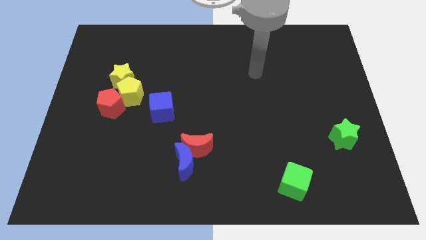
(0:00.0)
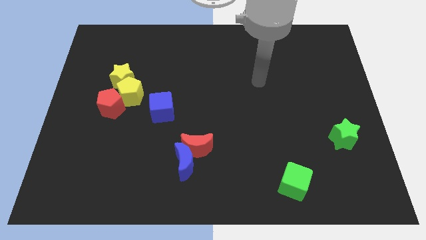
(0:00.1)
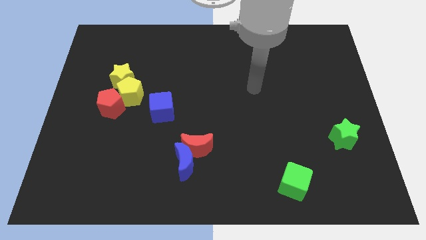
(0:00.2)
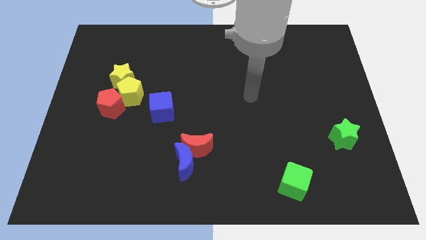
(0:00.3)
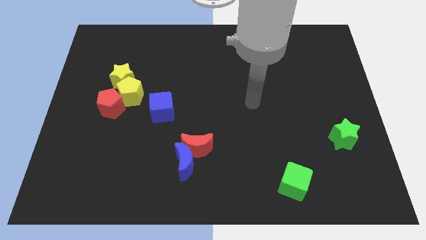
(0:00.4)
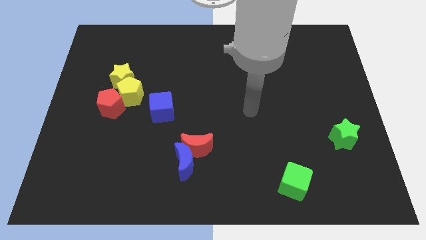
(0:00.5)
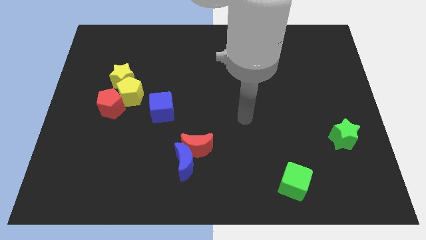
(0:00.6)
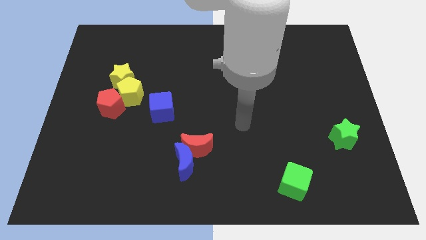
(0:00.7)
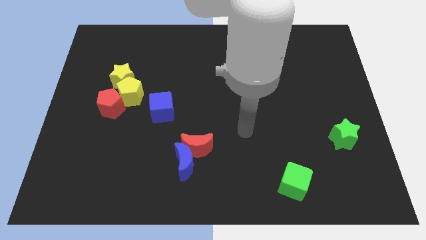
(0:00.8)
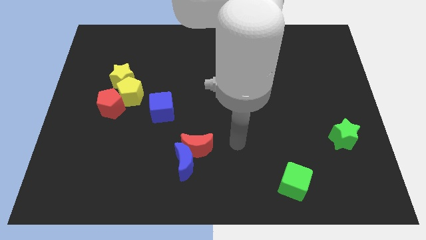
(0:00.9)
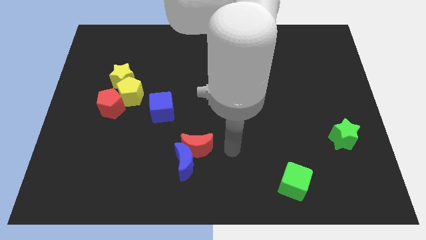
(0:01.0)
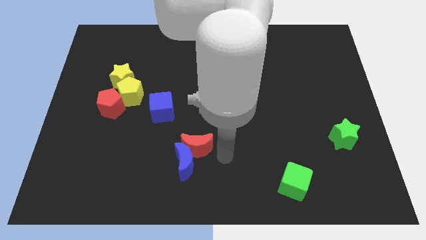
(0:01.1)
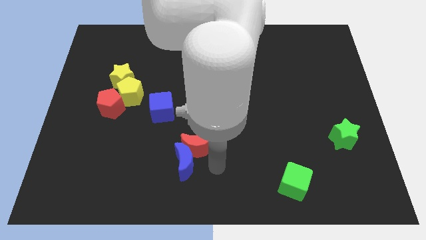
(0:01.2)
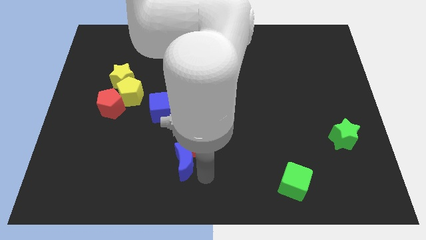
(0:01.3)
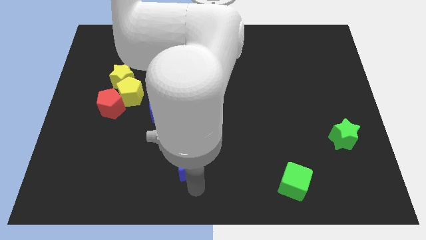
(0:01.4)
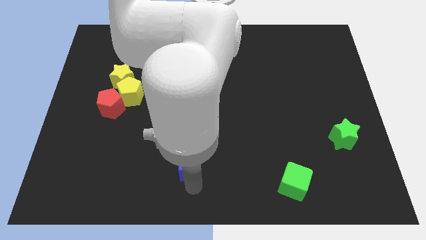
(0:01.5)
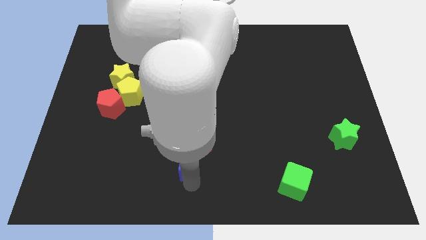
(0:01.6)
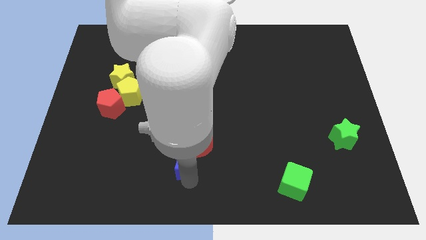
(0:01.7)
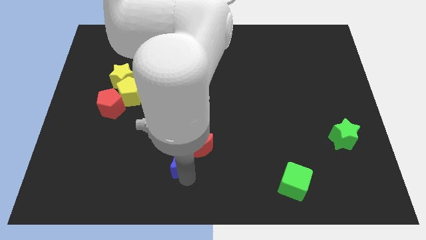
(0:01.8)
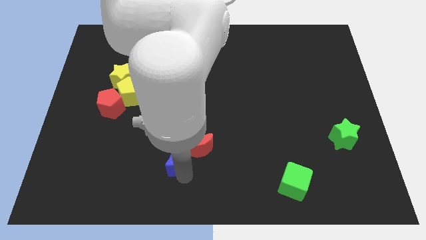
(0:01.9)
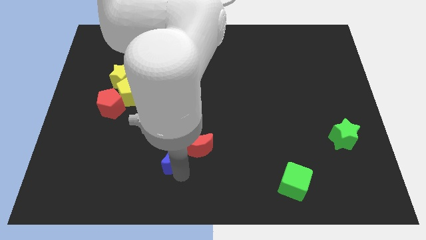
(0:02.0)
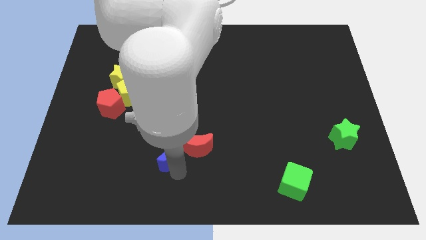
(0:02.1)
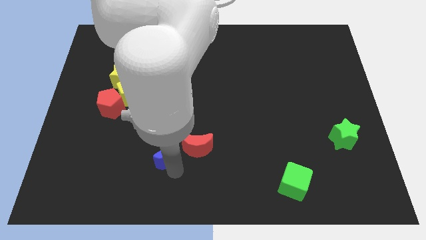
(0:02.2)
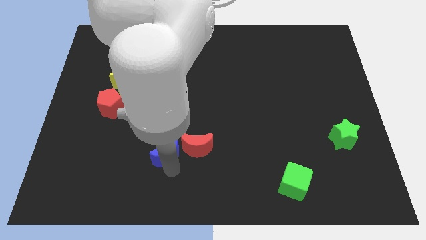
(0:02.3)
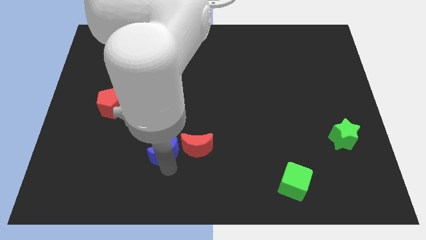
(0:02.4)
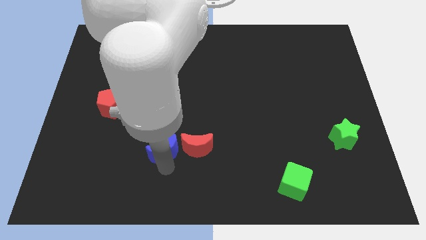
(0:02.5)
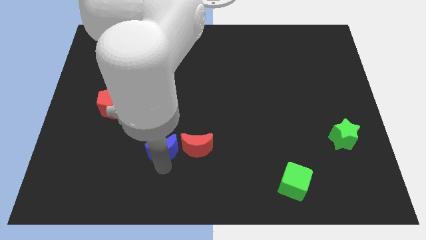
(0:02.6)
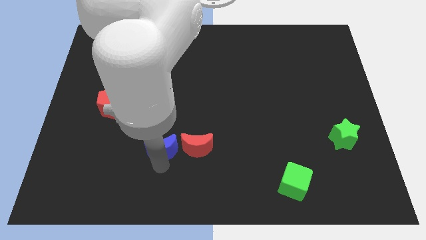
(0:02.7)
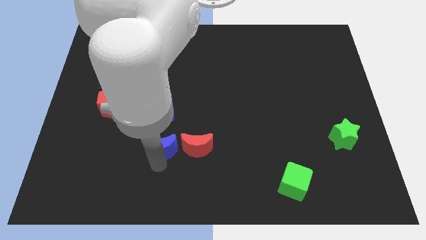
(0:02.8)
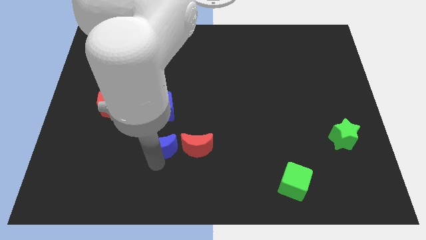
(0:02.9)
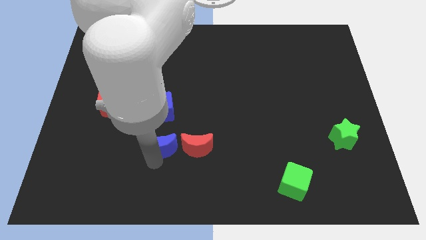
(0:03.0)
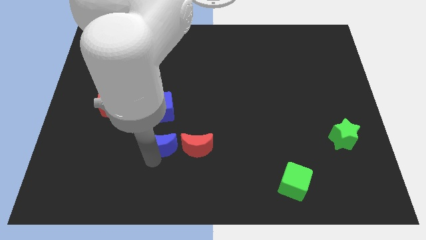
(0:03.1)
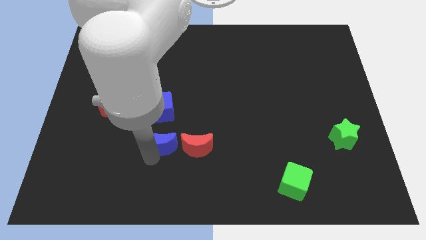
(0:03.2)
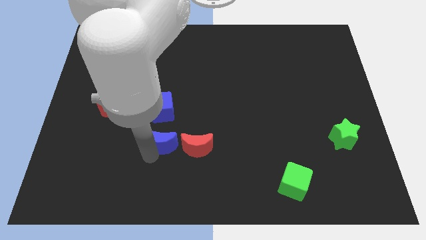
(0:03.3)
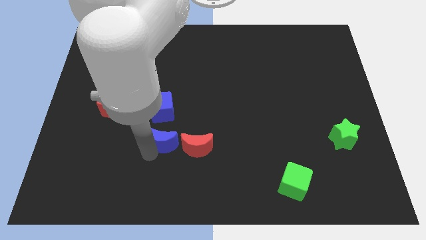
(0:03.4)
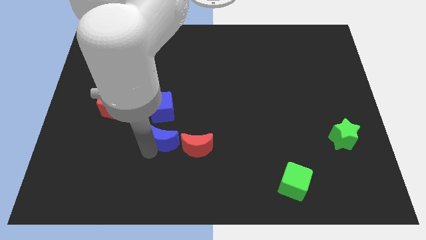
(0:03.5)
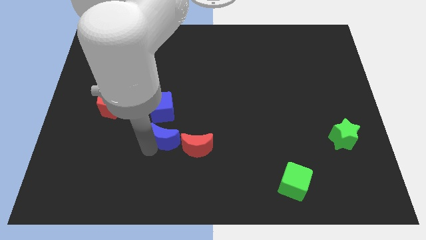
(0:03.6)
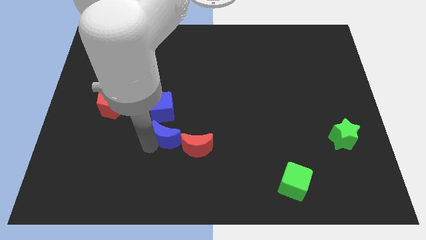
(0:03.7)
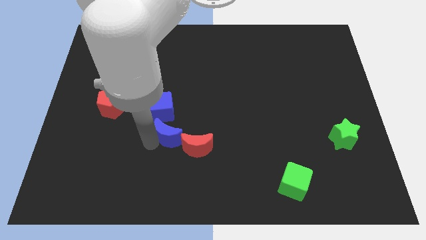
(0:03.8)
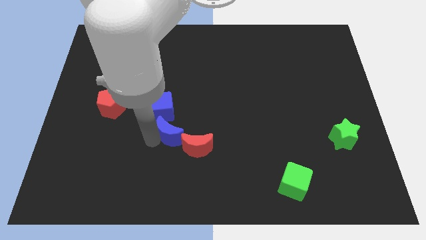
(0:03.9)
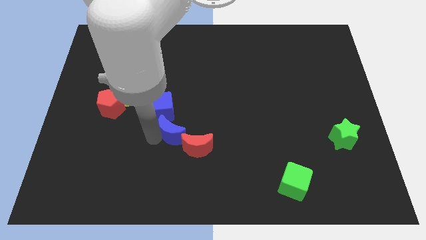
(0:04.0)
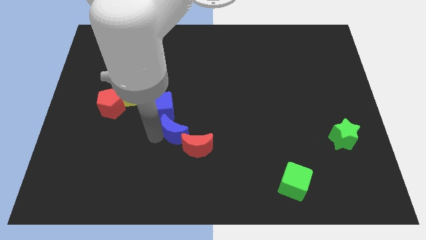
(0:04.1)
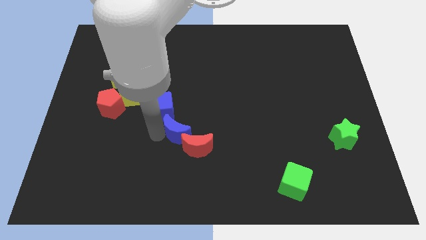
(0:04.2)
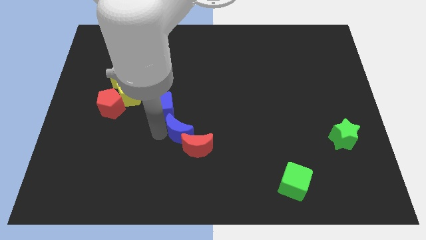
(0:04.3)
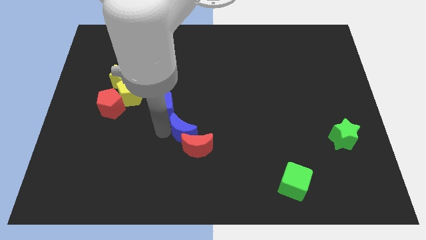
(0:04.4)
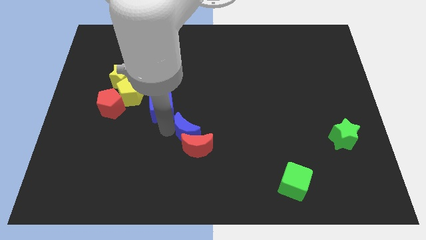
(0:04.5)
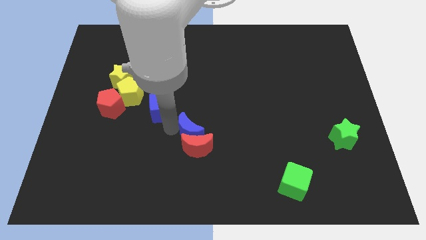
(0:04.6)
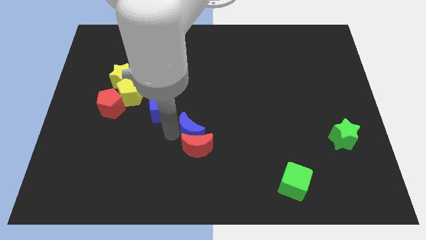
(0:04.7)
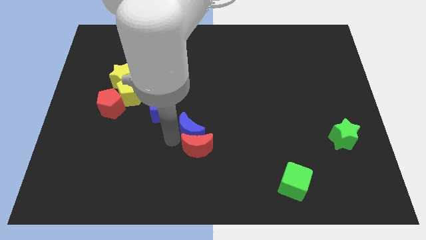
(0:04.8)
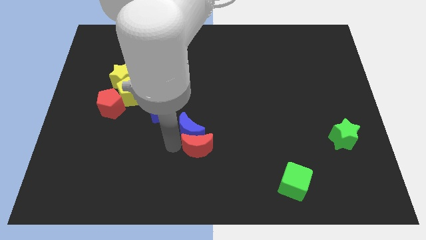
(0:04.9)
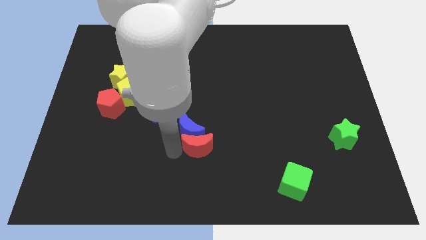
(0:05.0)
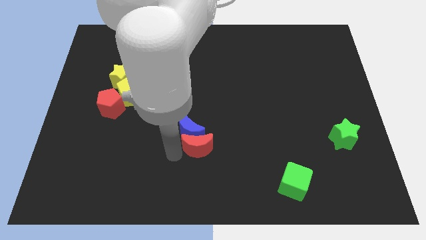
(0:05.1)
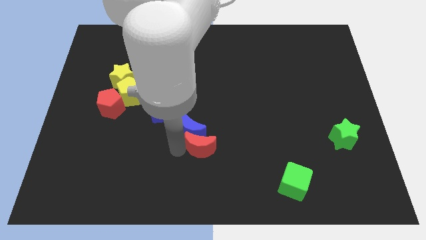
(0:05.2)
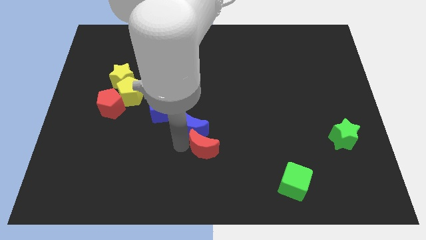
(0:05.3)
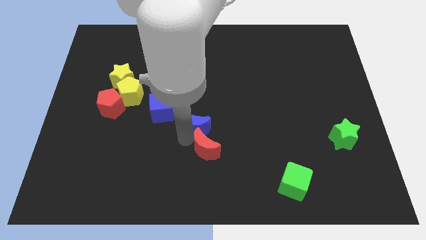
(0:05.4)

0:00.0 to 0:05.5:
move the blue moon to the right of the blue cube

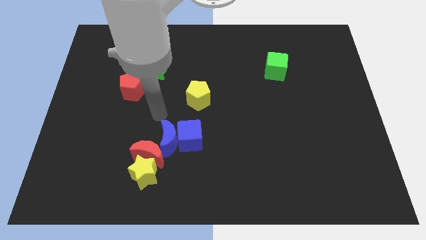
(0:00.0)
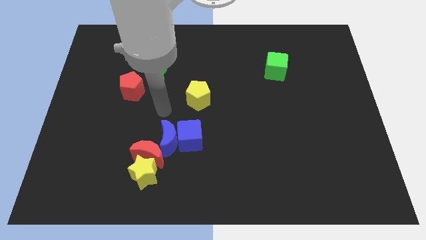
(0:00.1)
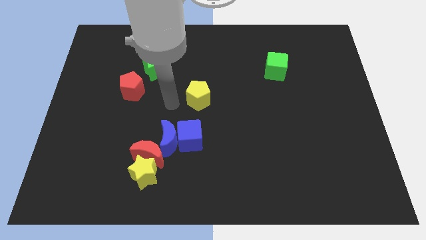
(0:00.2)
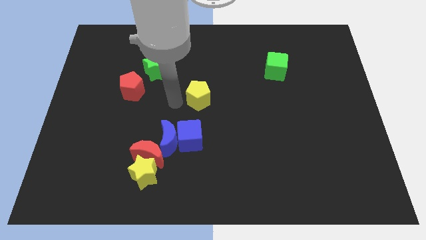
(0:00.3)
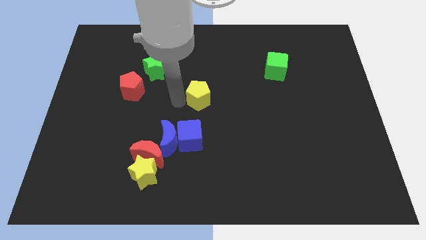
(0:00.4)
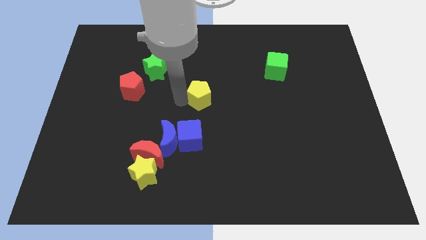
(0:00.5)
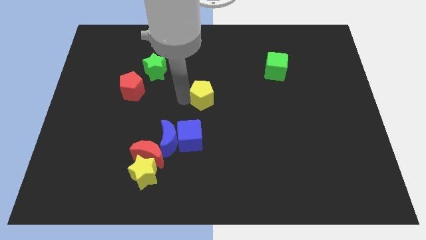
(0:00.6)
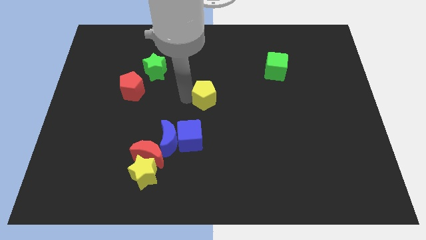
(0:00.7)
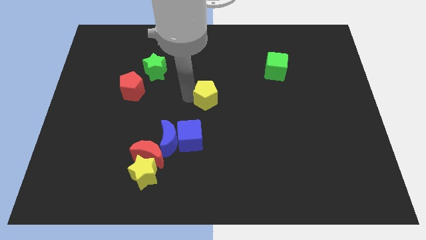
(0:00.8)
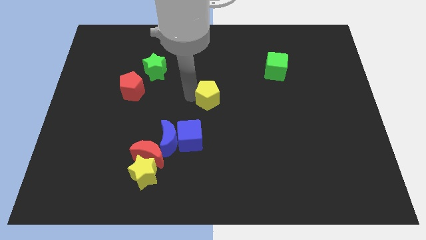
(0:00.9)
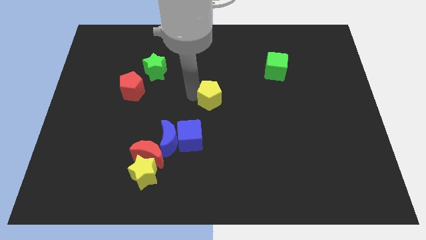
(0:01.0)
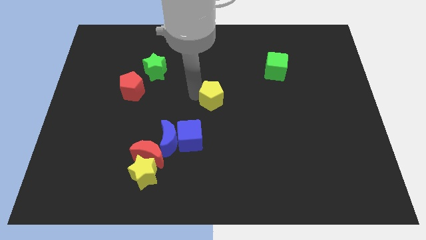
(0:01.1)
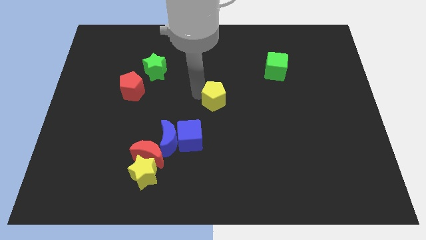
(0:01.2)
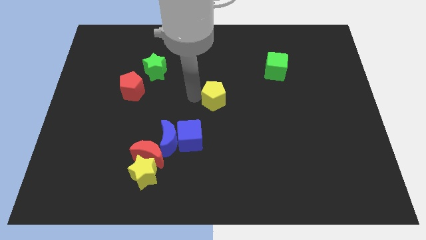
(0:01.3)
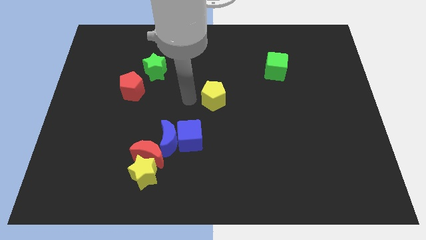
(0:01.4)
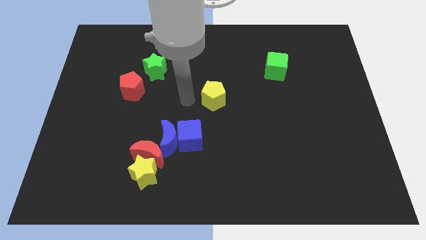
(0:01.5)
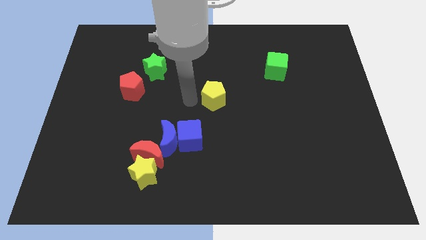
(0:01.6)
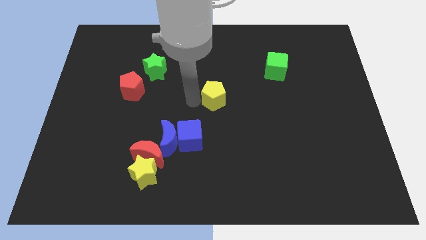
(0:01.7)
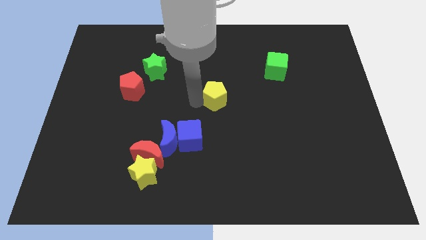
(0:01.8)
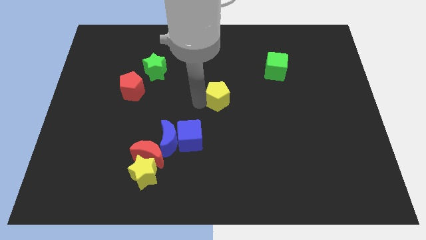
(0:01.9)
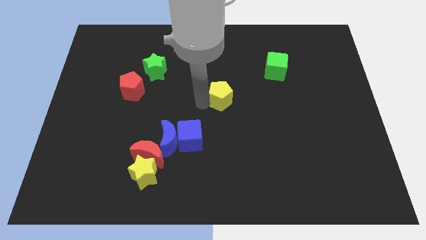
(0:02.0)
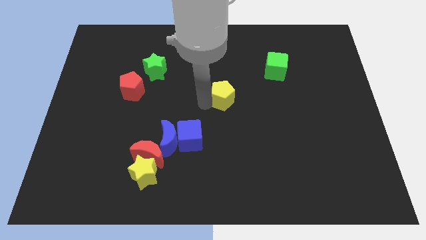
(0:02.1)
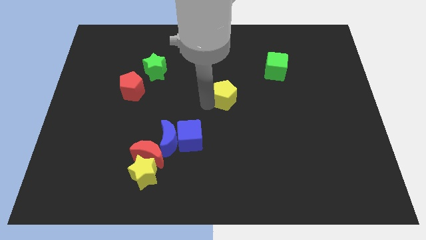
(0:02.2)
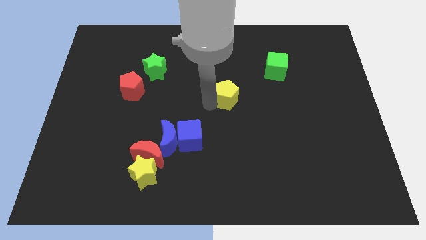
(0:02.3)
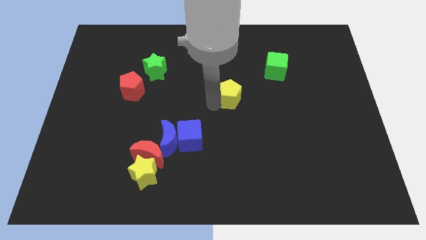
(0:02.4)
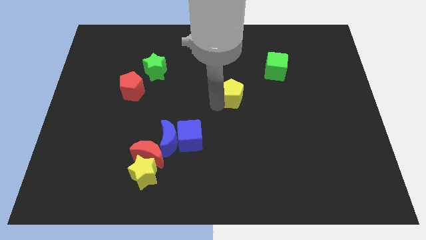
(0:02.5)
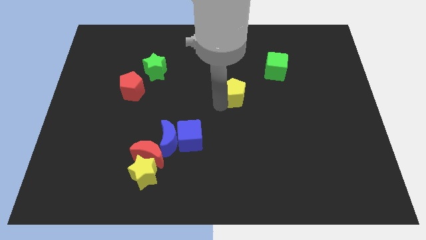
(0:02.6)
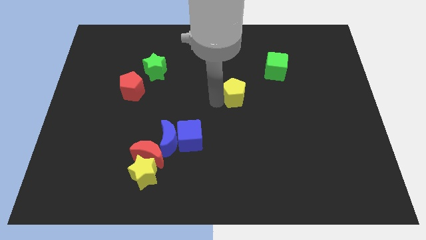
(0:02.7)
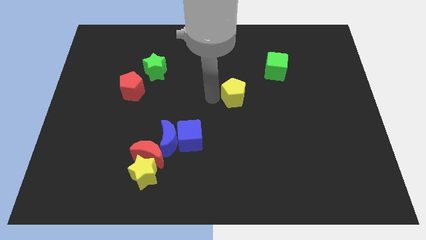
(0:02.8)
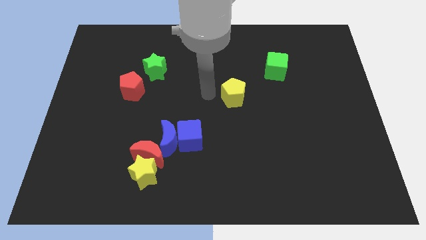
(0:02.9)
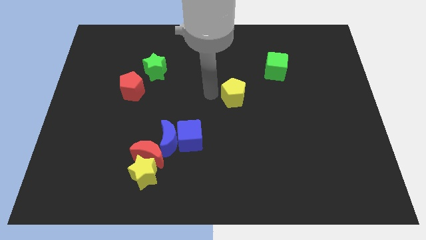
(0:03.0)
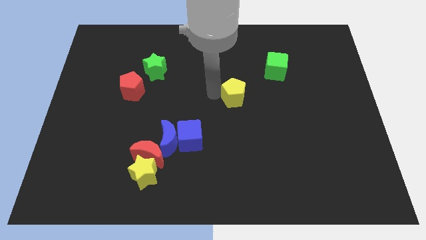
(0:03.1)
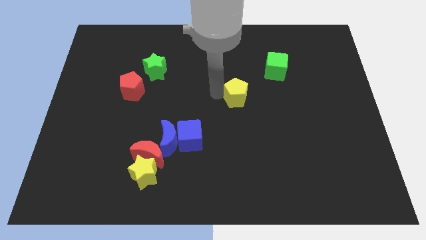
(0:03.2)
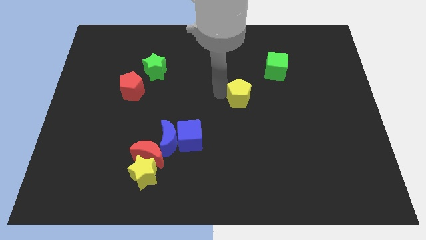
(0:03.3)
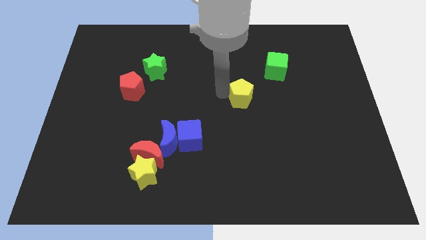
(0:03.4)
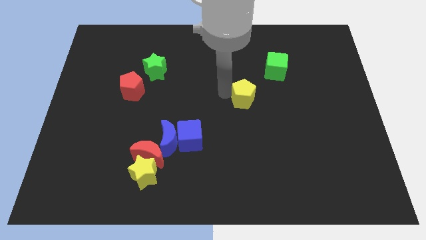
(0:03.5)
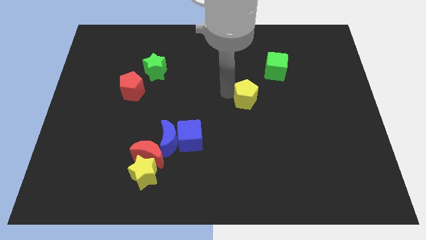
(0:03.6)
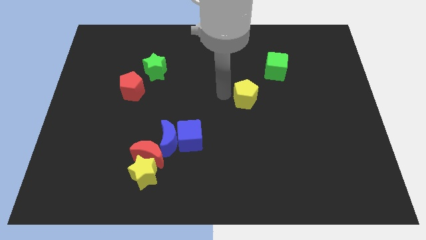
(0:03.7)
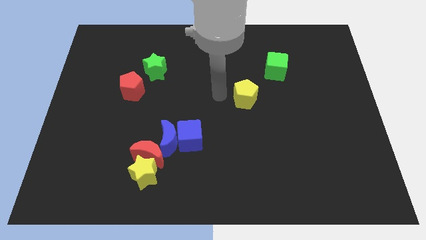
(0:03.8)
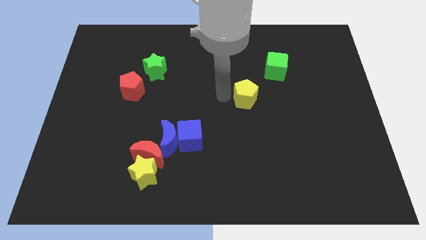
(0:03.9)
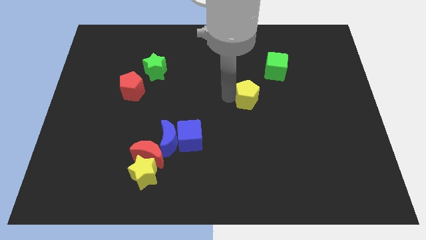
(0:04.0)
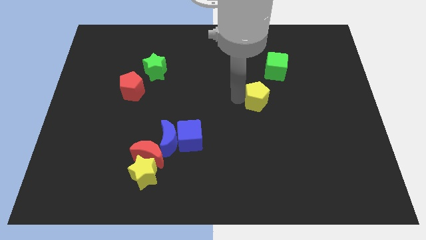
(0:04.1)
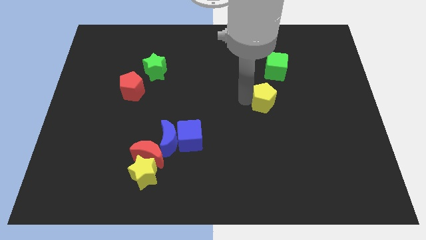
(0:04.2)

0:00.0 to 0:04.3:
push the yellow pentagon below the green cube
